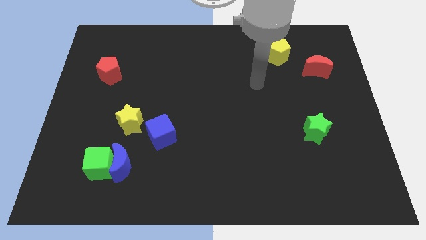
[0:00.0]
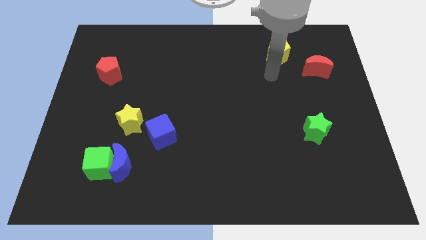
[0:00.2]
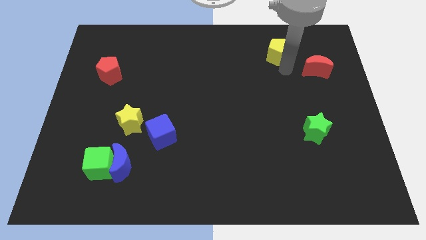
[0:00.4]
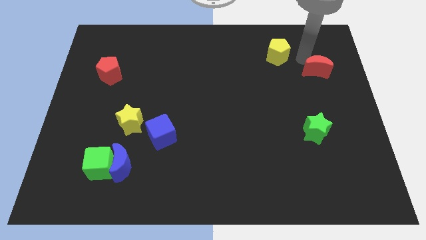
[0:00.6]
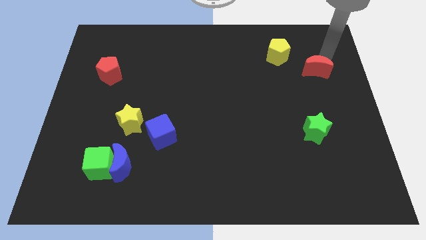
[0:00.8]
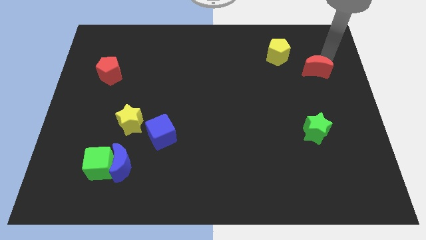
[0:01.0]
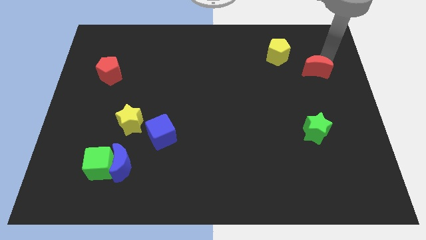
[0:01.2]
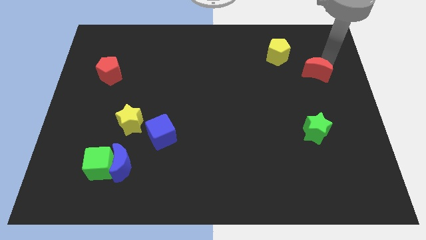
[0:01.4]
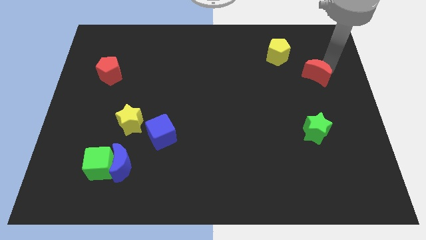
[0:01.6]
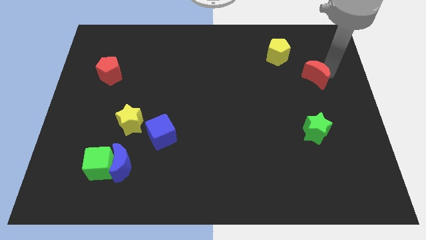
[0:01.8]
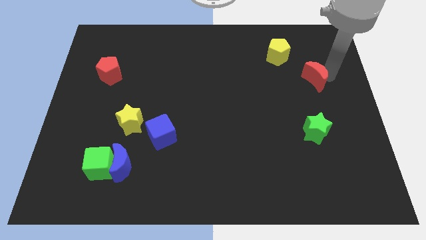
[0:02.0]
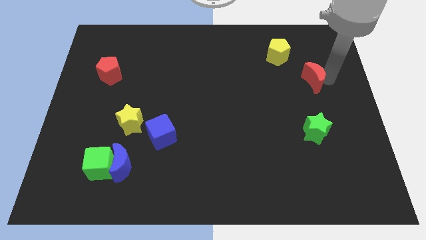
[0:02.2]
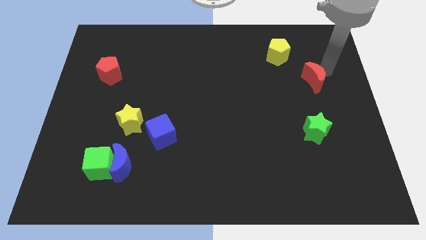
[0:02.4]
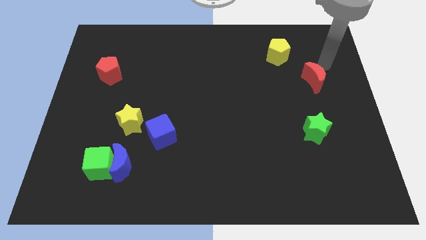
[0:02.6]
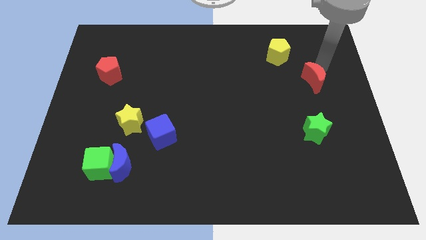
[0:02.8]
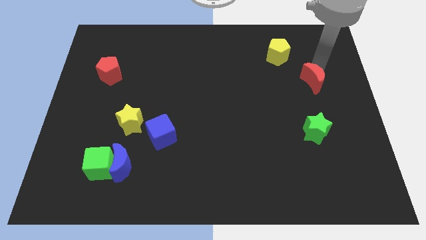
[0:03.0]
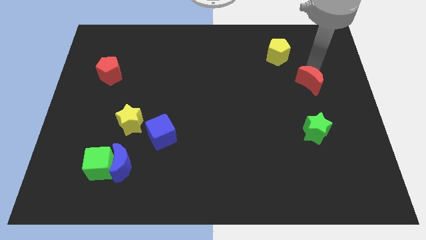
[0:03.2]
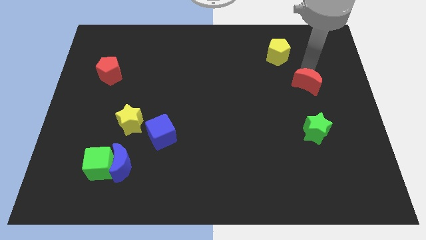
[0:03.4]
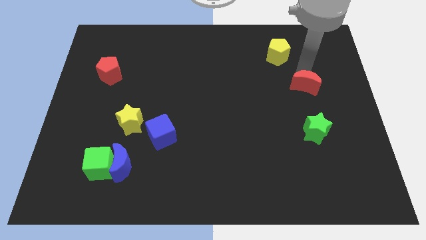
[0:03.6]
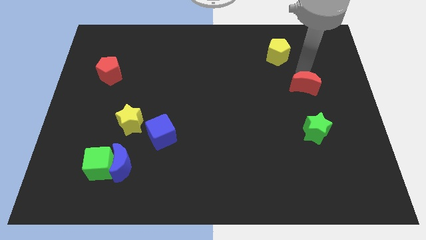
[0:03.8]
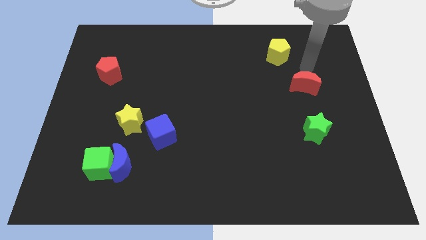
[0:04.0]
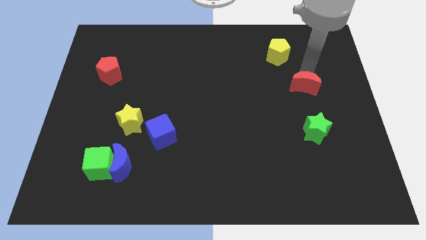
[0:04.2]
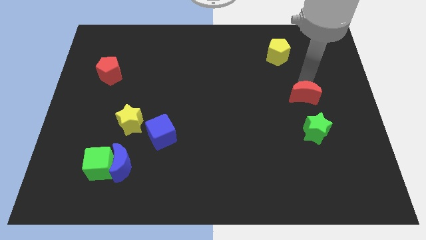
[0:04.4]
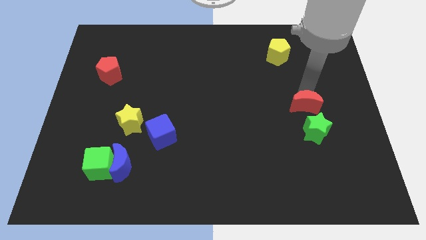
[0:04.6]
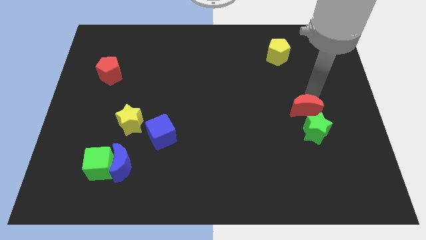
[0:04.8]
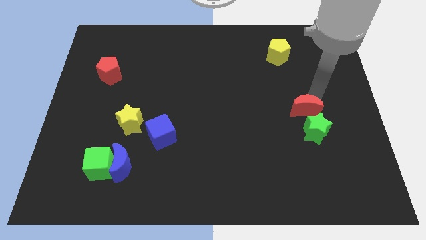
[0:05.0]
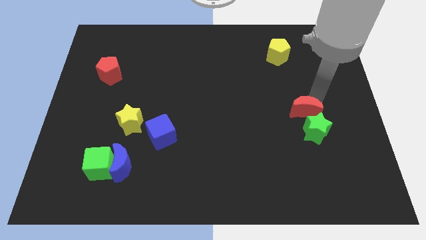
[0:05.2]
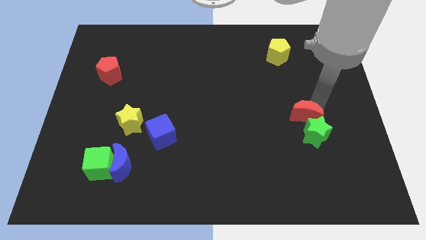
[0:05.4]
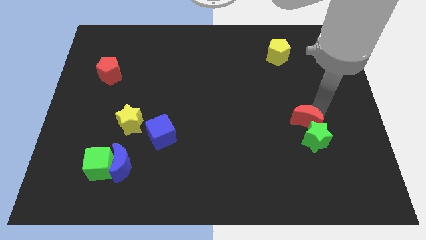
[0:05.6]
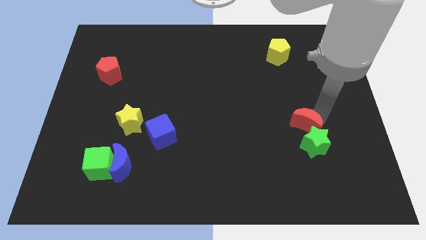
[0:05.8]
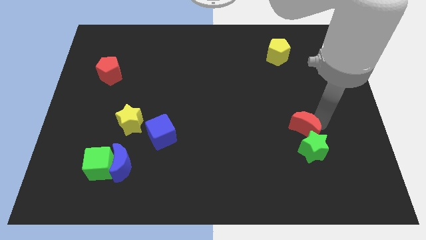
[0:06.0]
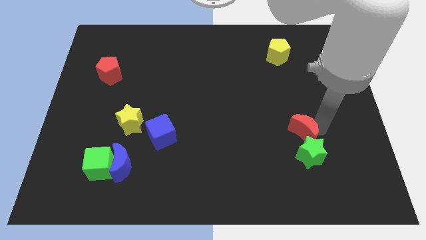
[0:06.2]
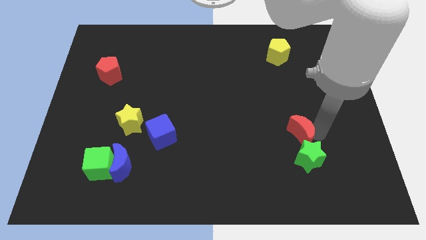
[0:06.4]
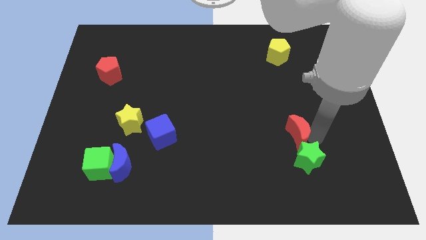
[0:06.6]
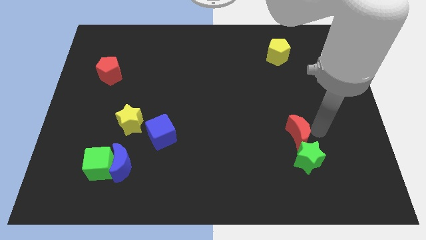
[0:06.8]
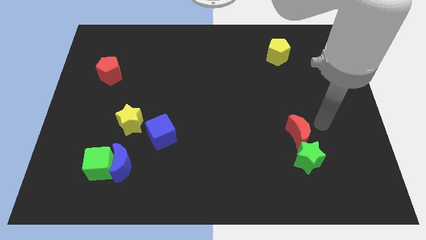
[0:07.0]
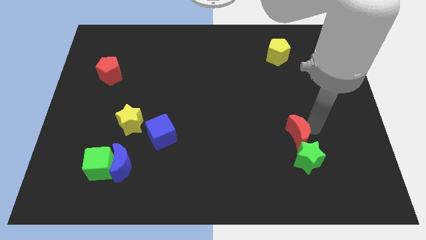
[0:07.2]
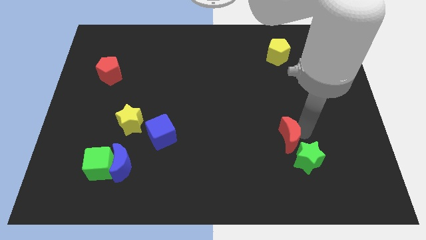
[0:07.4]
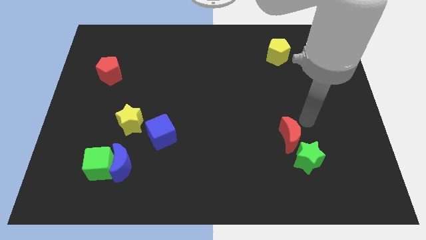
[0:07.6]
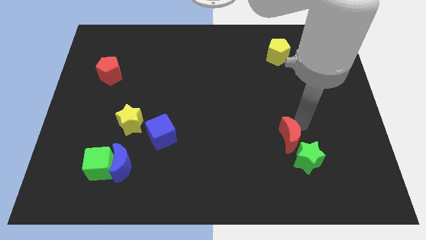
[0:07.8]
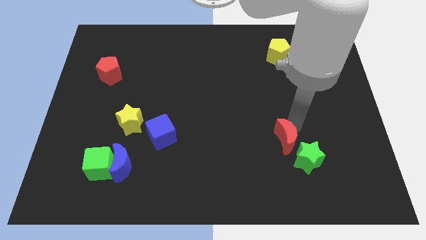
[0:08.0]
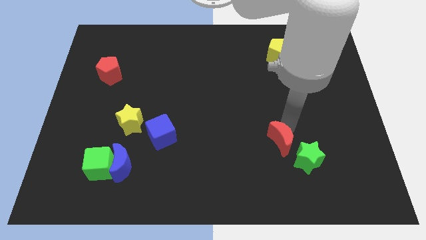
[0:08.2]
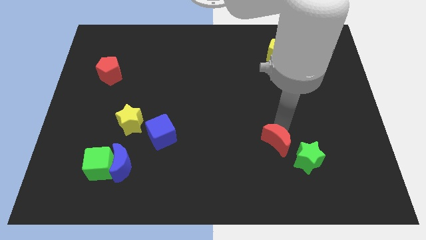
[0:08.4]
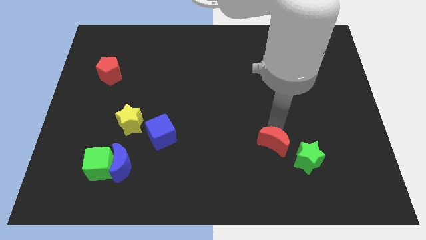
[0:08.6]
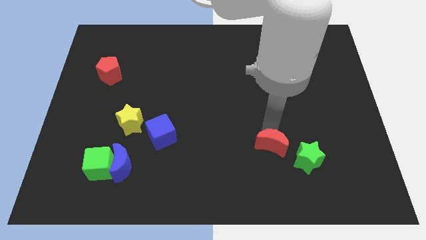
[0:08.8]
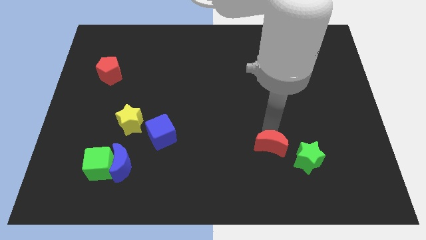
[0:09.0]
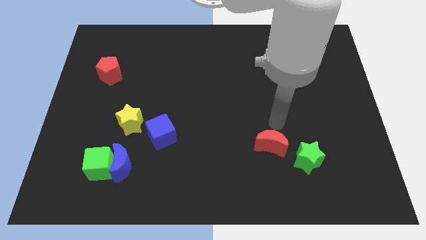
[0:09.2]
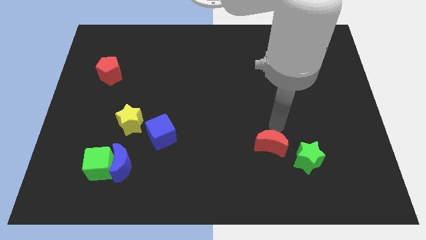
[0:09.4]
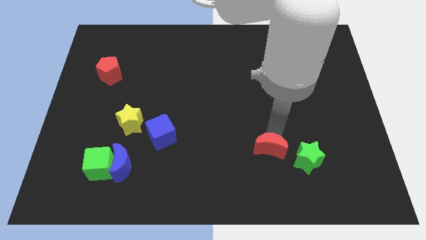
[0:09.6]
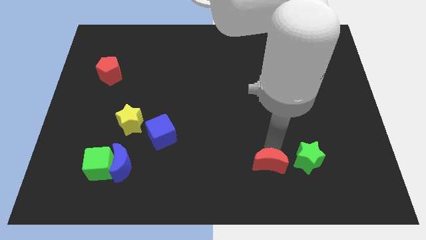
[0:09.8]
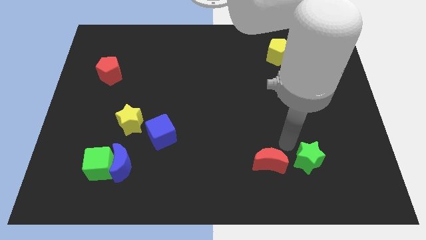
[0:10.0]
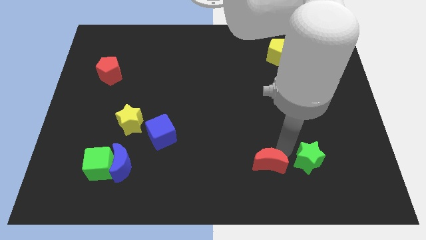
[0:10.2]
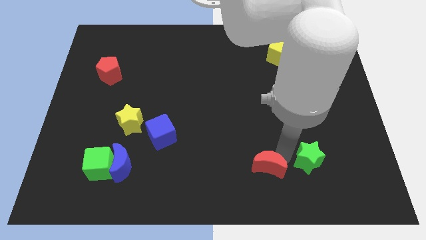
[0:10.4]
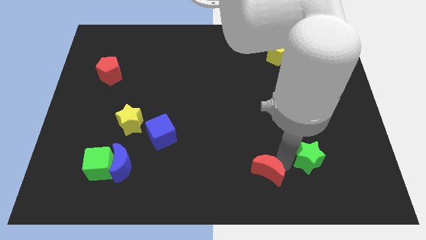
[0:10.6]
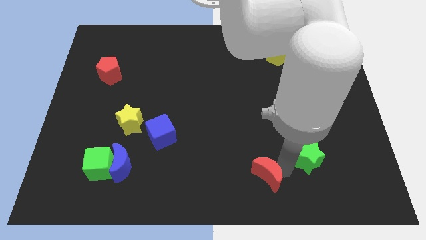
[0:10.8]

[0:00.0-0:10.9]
push the red moon to the bottom side
